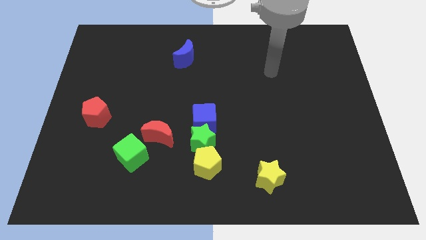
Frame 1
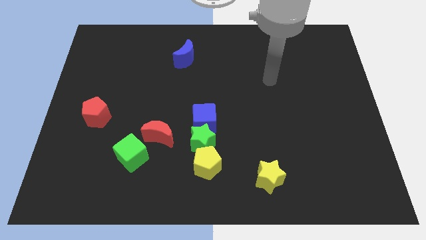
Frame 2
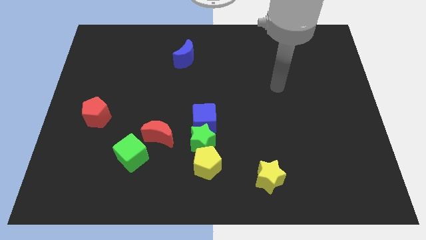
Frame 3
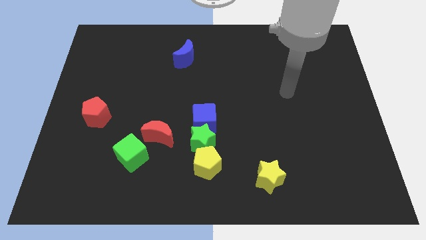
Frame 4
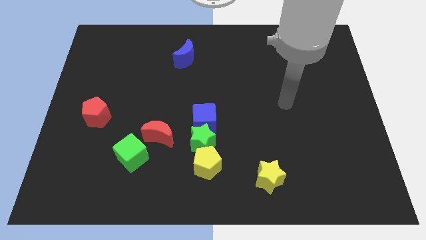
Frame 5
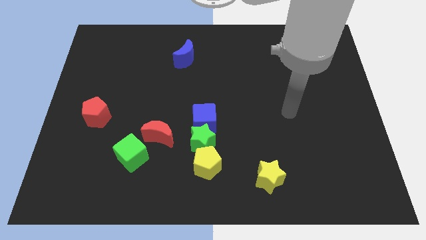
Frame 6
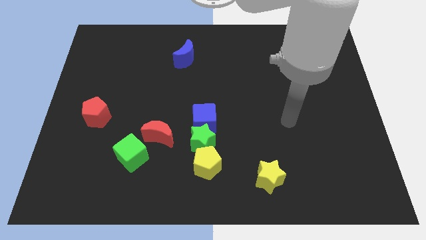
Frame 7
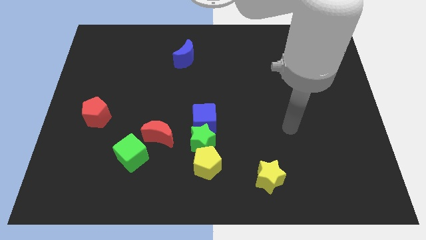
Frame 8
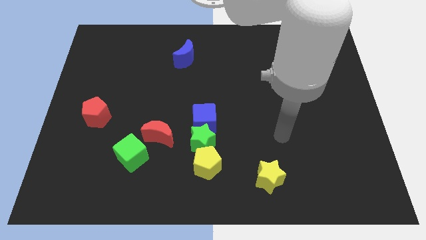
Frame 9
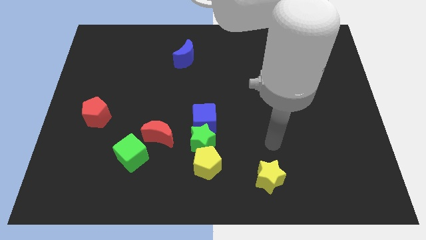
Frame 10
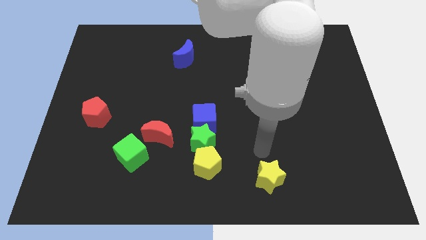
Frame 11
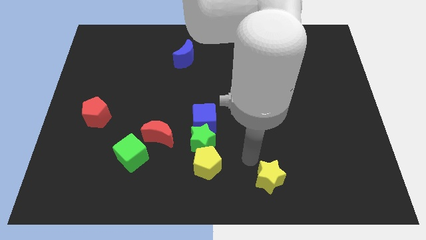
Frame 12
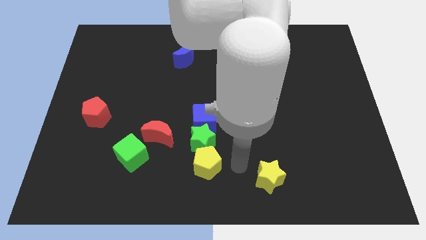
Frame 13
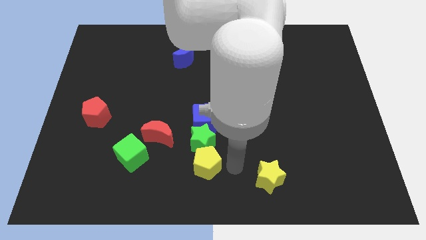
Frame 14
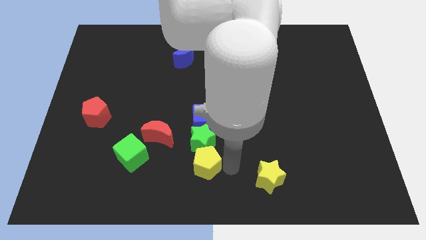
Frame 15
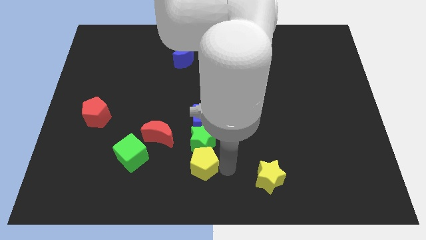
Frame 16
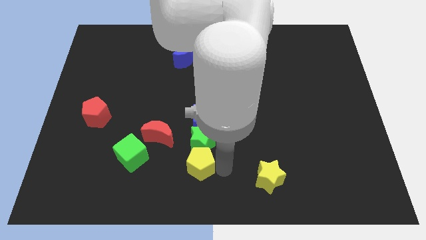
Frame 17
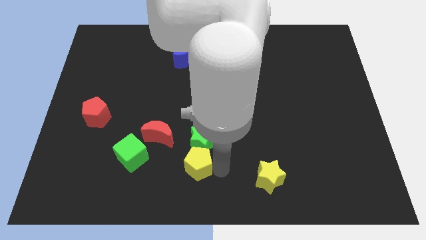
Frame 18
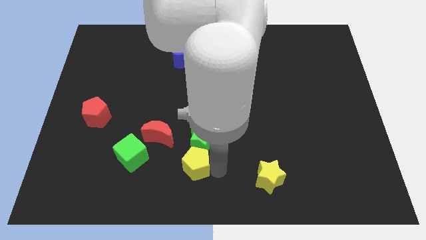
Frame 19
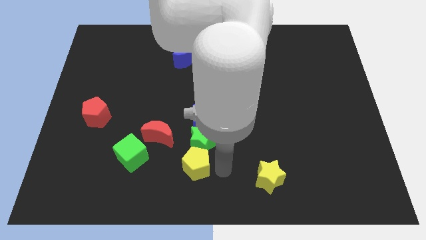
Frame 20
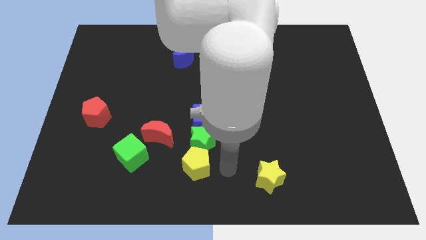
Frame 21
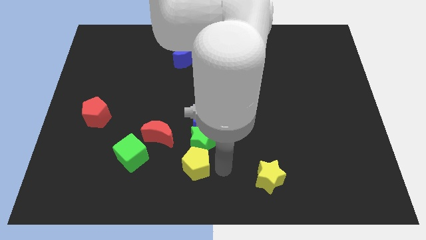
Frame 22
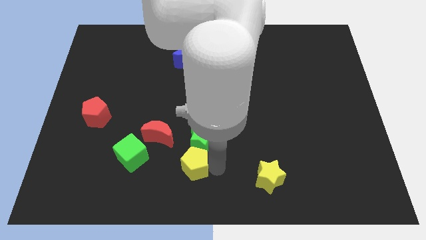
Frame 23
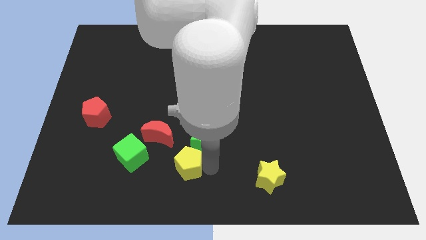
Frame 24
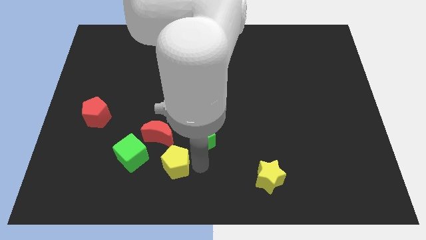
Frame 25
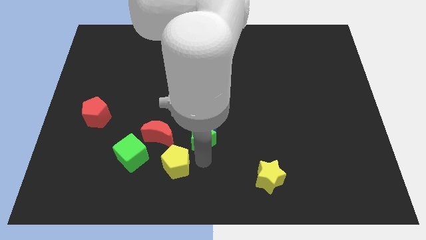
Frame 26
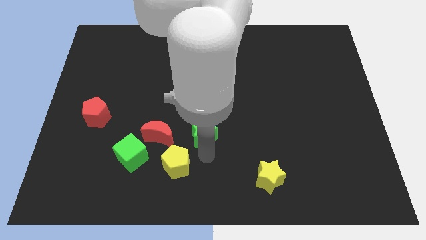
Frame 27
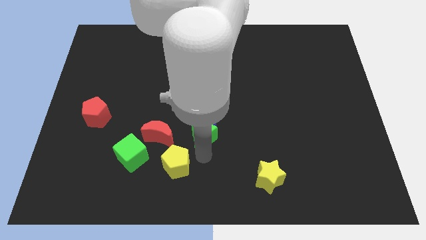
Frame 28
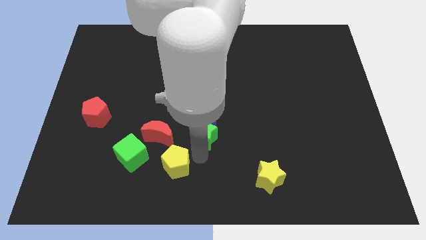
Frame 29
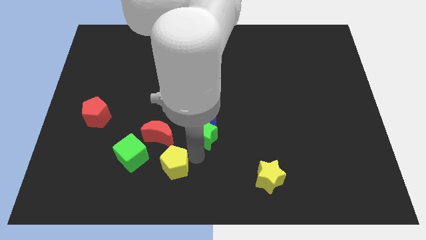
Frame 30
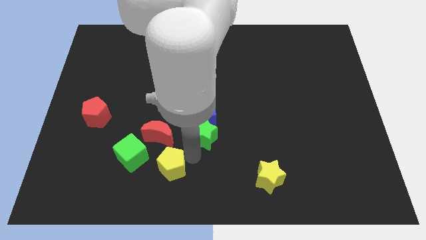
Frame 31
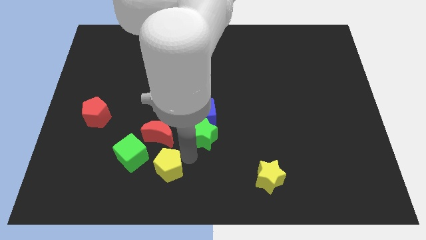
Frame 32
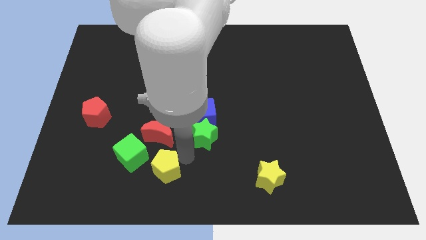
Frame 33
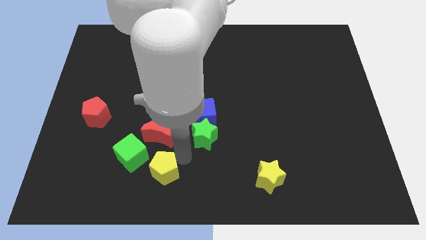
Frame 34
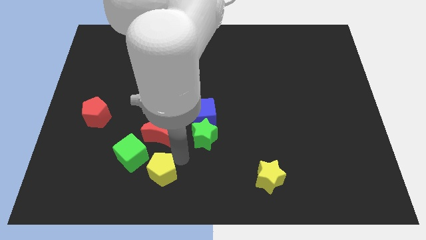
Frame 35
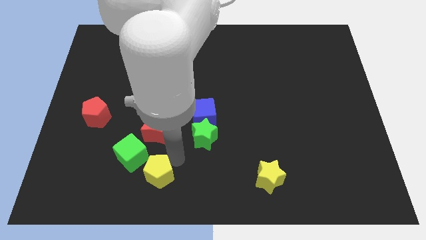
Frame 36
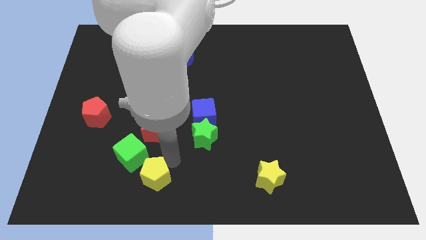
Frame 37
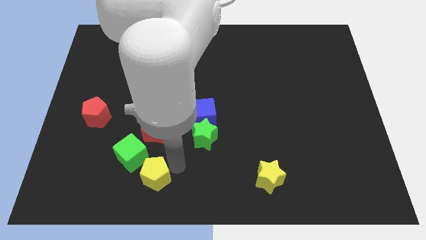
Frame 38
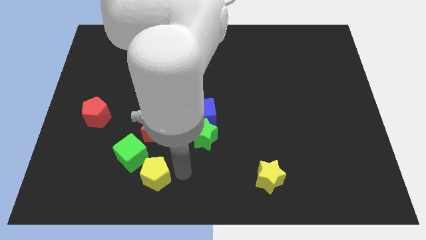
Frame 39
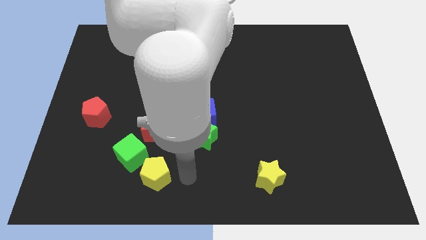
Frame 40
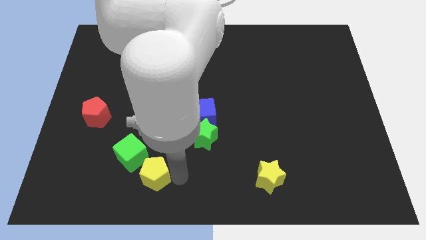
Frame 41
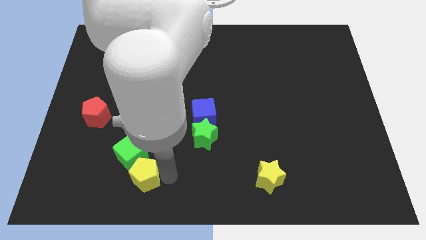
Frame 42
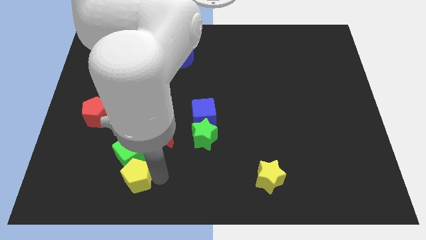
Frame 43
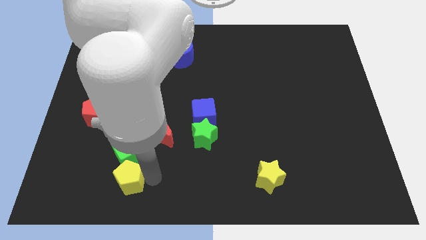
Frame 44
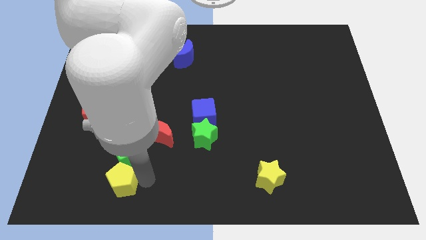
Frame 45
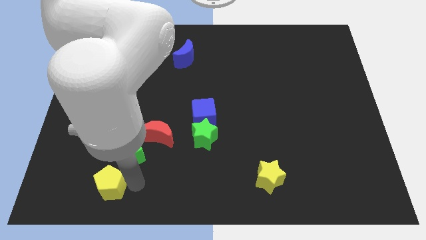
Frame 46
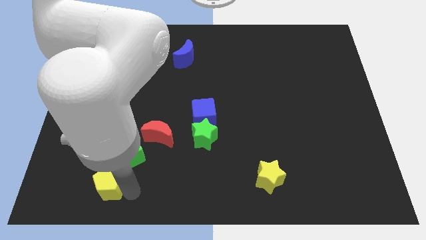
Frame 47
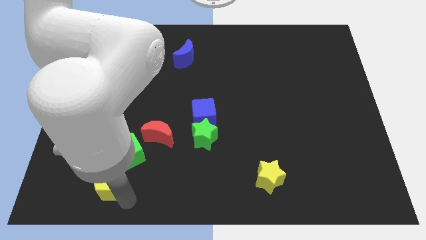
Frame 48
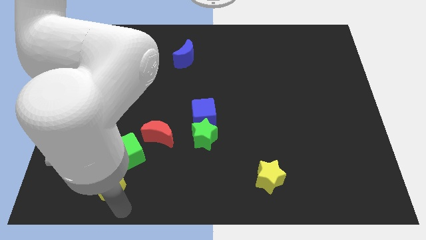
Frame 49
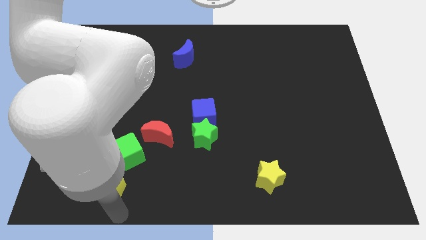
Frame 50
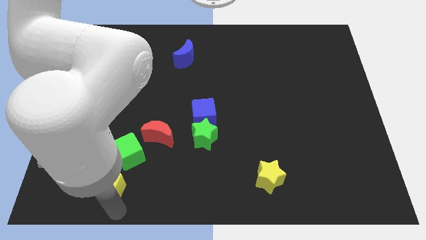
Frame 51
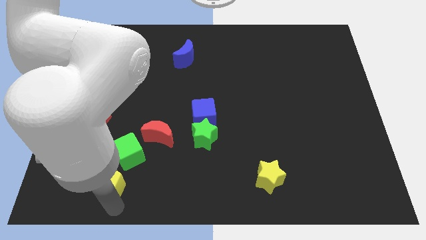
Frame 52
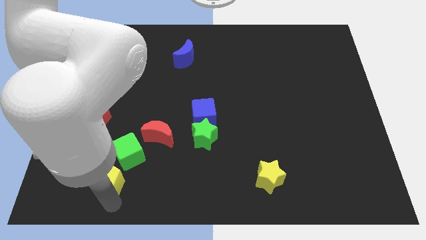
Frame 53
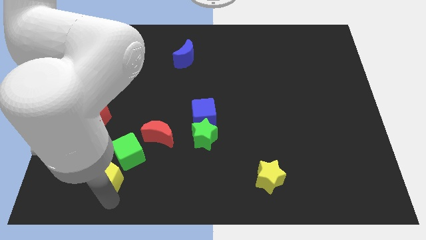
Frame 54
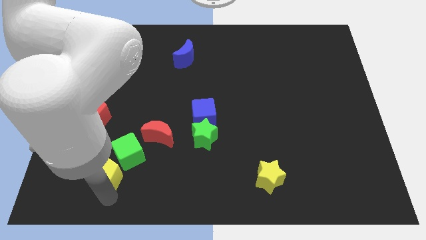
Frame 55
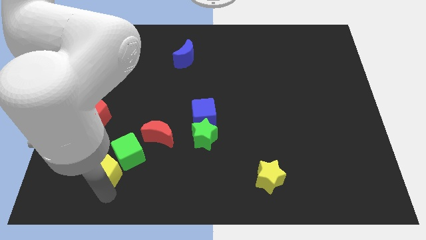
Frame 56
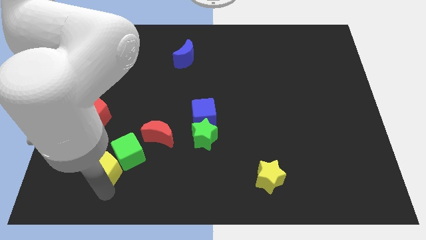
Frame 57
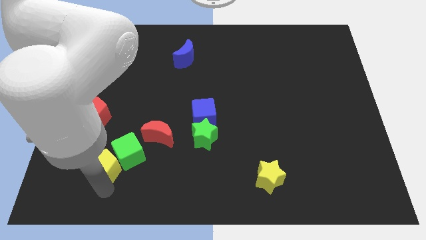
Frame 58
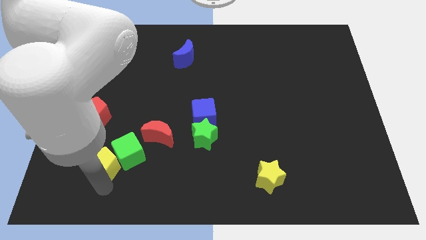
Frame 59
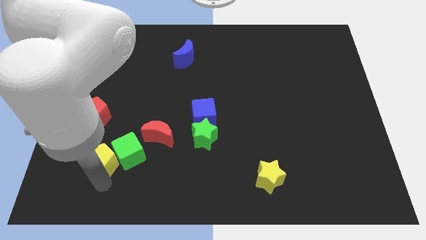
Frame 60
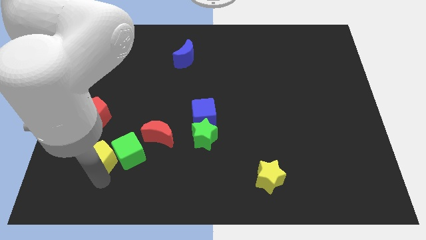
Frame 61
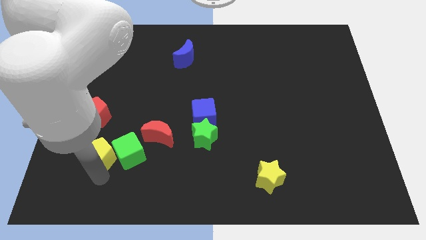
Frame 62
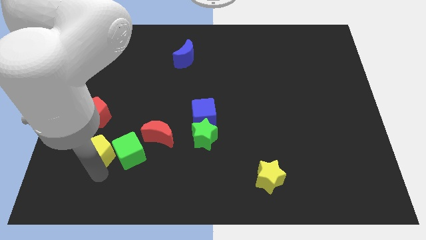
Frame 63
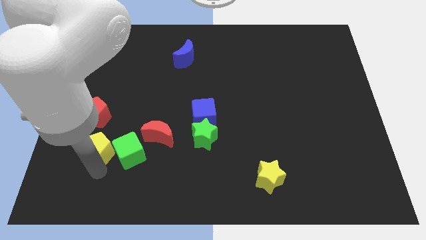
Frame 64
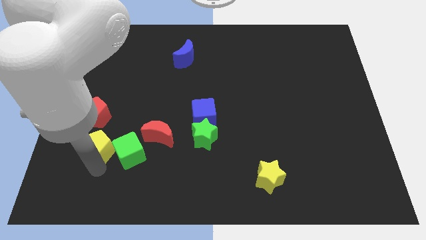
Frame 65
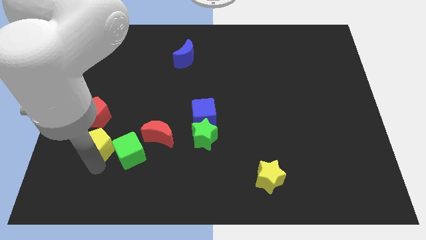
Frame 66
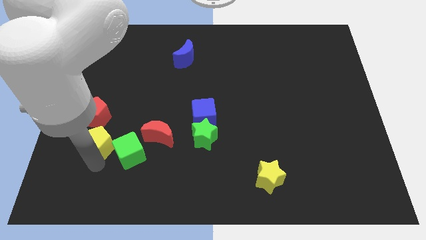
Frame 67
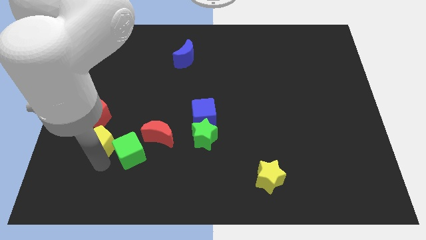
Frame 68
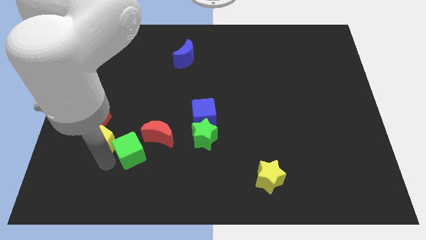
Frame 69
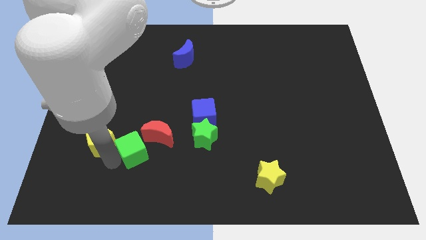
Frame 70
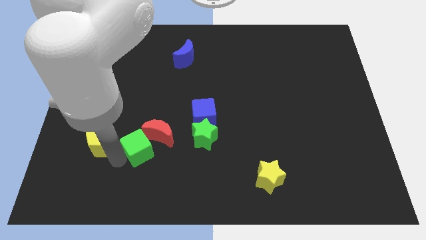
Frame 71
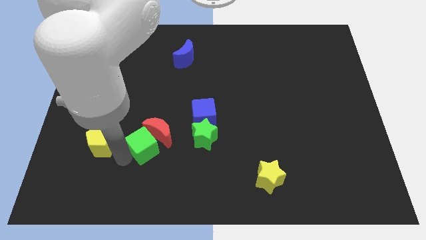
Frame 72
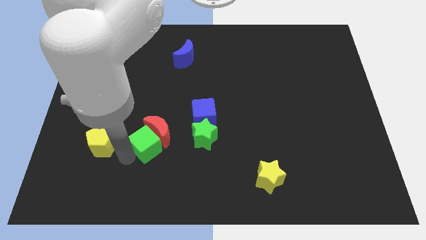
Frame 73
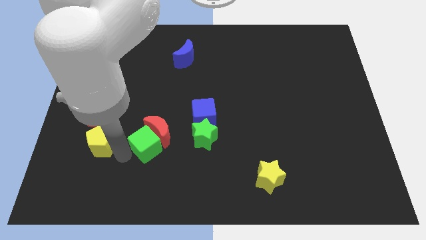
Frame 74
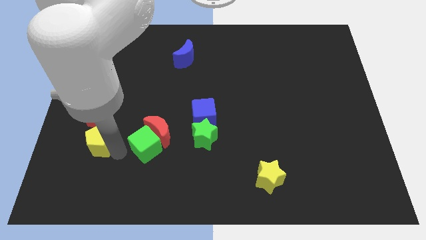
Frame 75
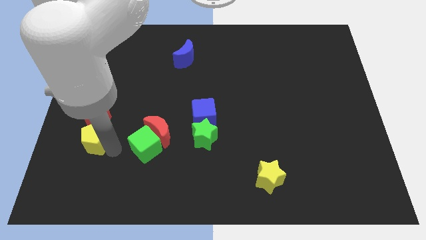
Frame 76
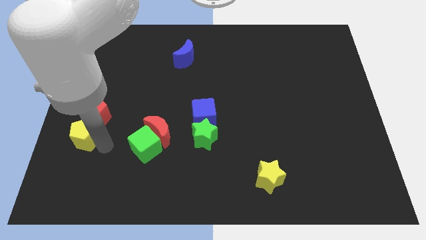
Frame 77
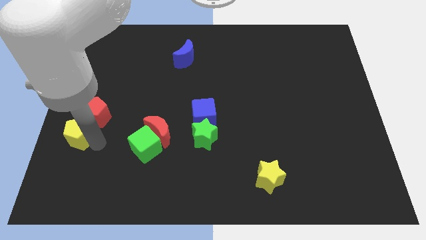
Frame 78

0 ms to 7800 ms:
slide the yellow pentagon to the left side
